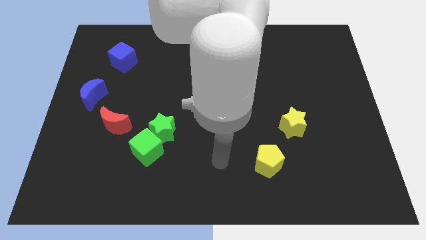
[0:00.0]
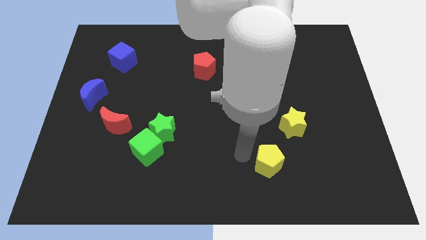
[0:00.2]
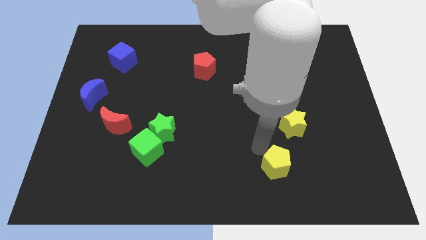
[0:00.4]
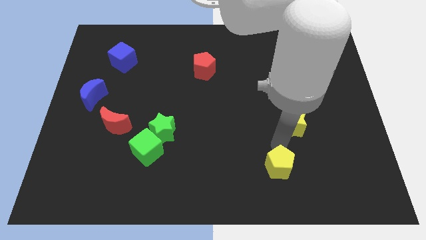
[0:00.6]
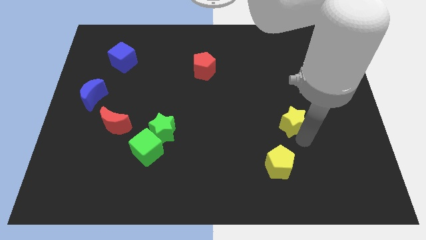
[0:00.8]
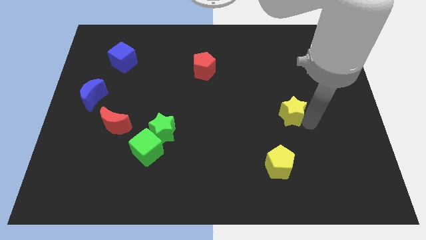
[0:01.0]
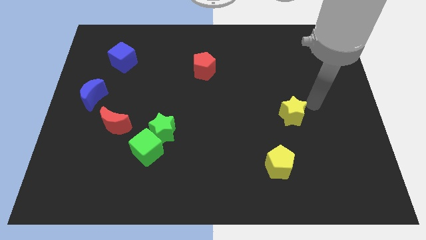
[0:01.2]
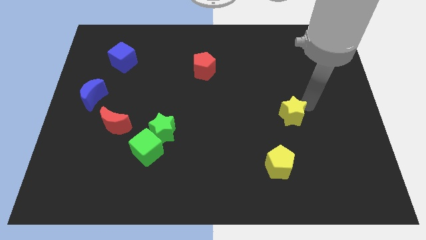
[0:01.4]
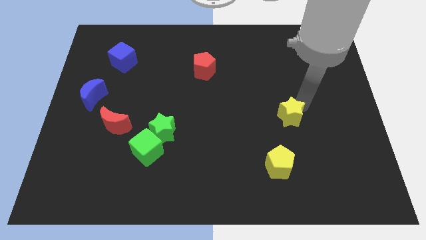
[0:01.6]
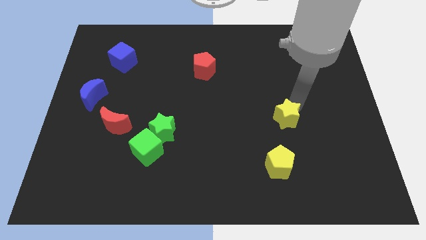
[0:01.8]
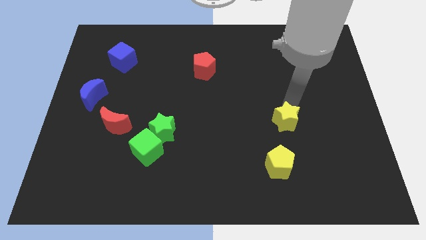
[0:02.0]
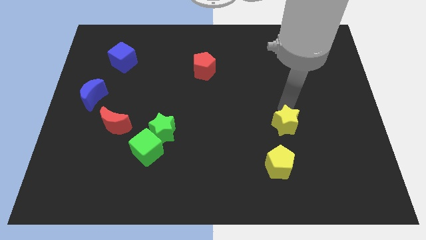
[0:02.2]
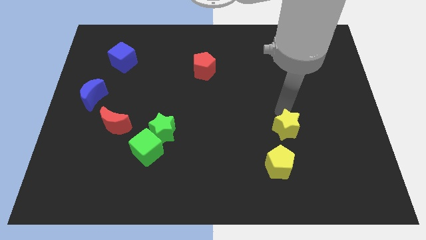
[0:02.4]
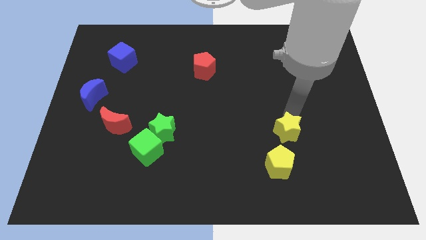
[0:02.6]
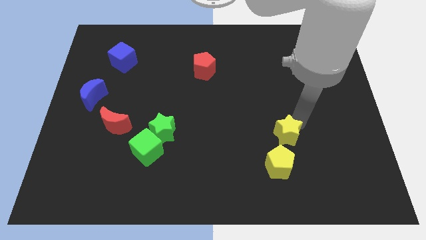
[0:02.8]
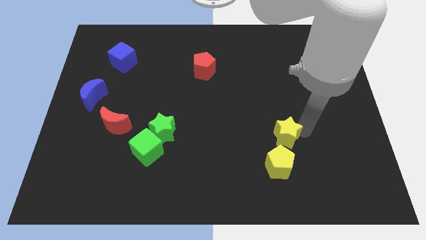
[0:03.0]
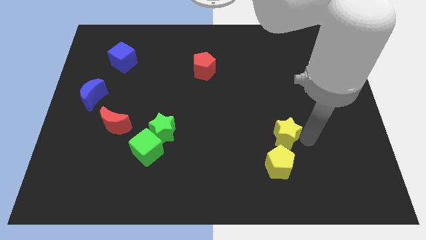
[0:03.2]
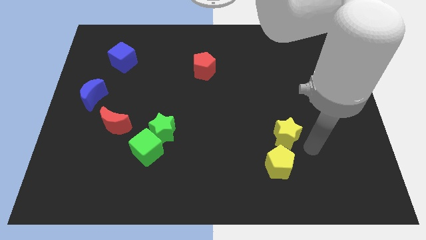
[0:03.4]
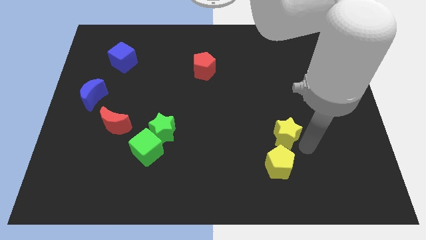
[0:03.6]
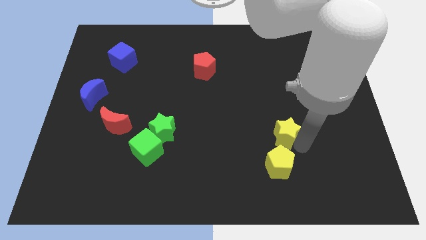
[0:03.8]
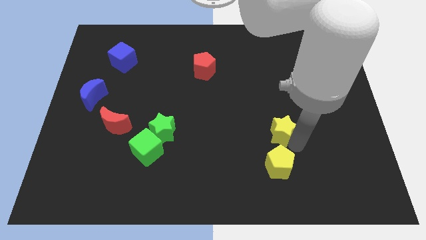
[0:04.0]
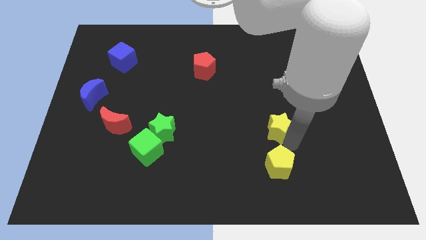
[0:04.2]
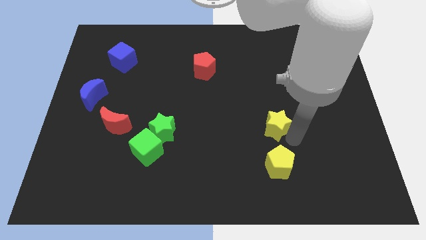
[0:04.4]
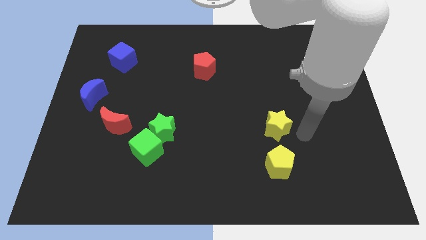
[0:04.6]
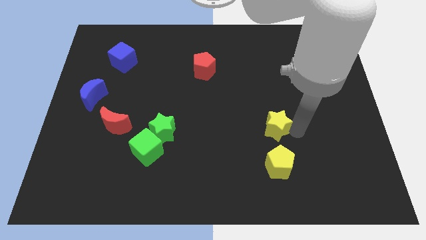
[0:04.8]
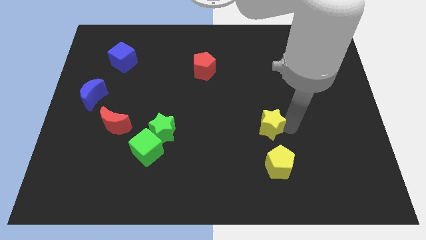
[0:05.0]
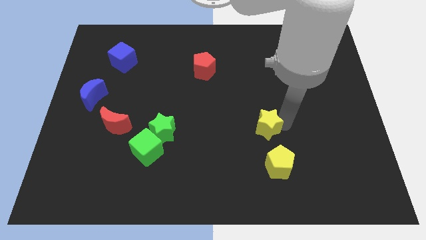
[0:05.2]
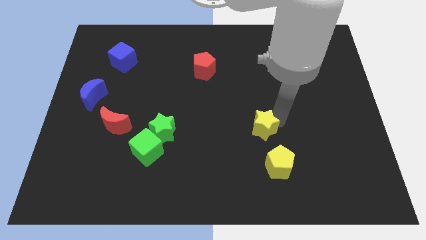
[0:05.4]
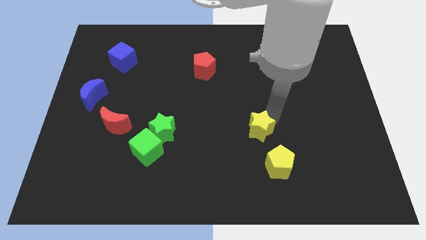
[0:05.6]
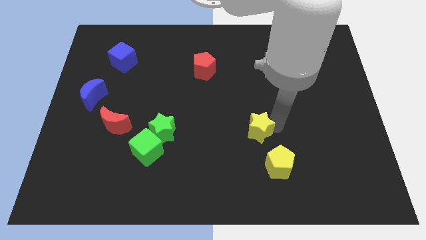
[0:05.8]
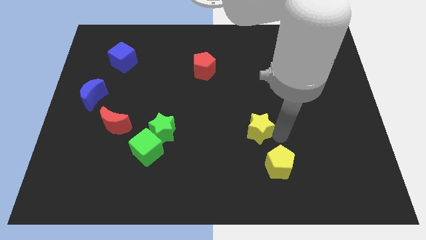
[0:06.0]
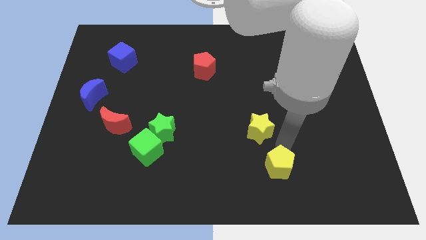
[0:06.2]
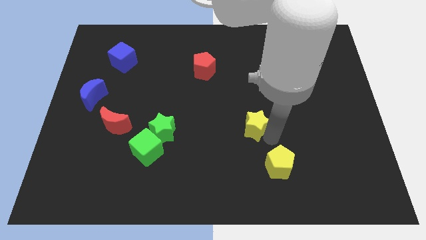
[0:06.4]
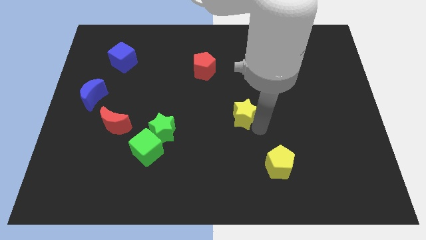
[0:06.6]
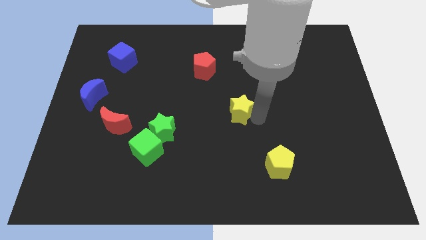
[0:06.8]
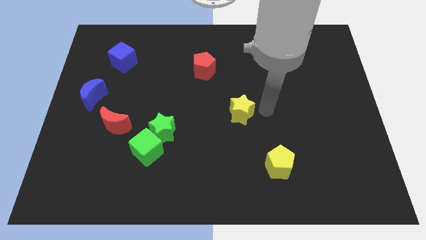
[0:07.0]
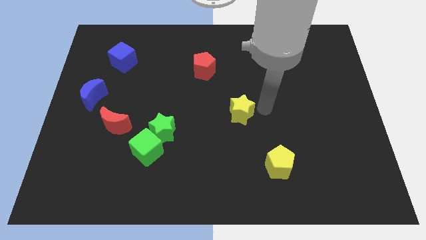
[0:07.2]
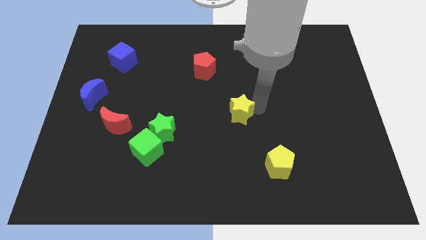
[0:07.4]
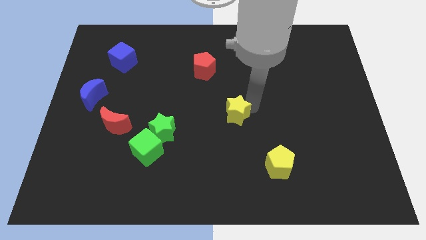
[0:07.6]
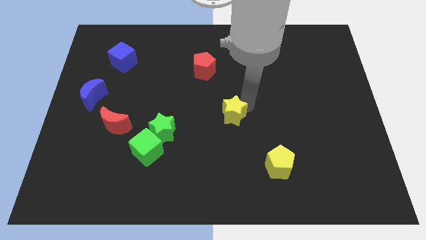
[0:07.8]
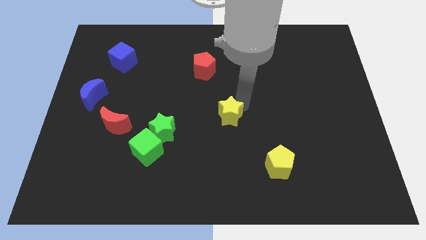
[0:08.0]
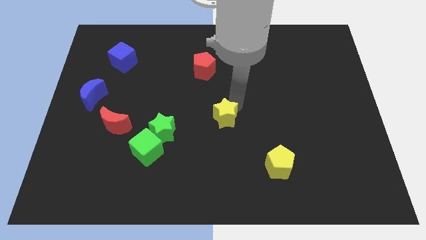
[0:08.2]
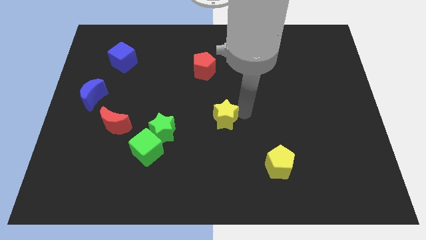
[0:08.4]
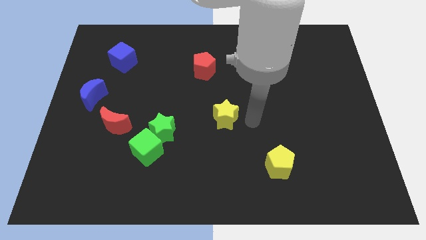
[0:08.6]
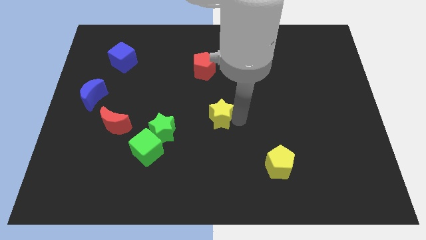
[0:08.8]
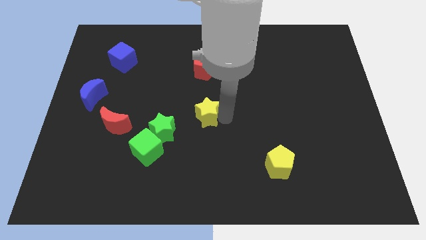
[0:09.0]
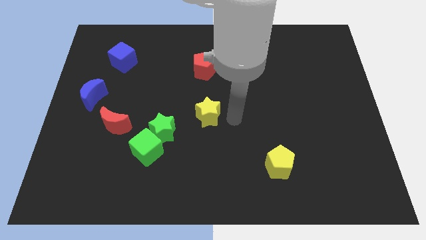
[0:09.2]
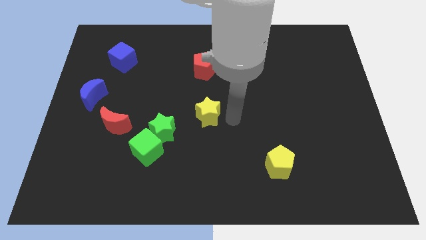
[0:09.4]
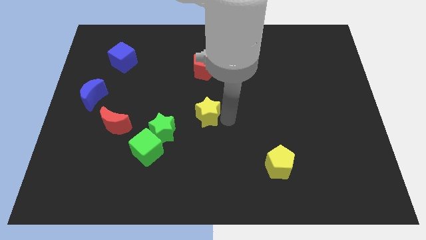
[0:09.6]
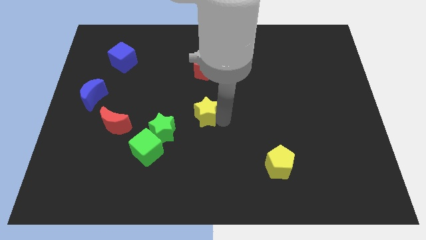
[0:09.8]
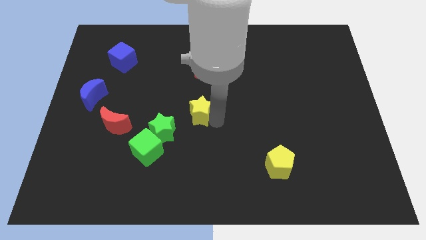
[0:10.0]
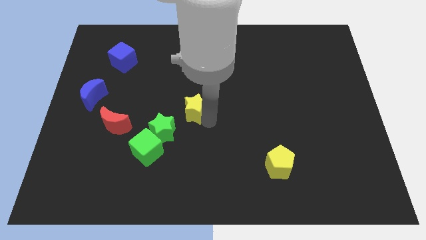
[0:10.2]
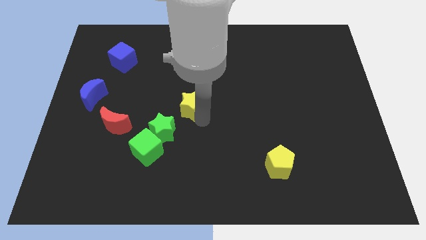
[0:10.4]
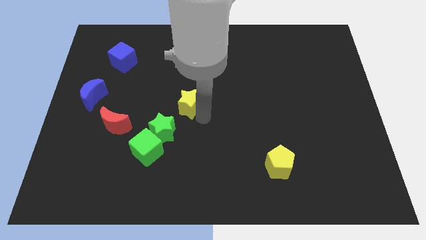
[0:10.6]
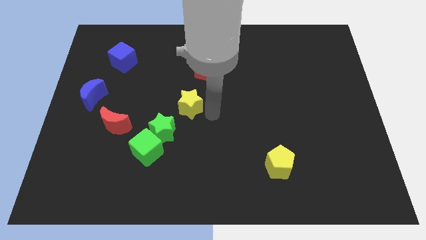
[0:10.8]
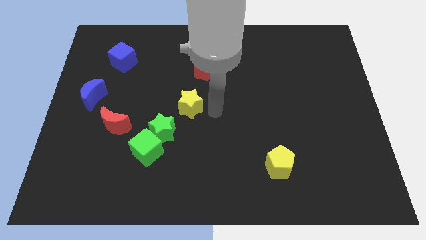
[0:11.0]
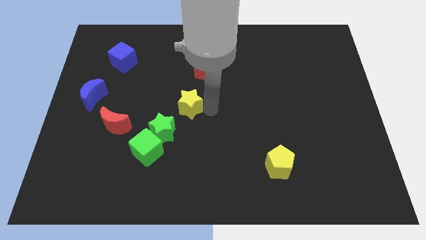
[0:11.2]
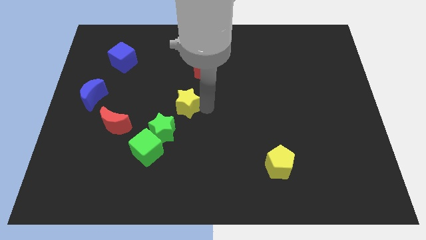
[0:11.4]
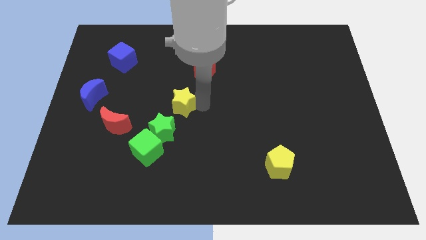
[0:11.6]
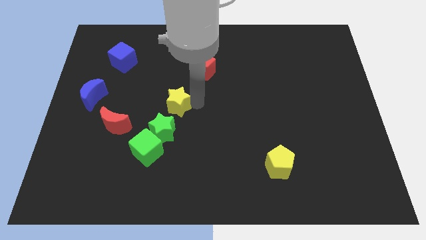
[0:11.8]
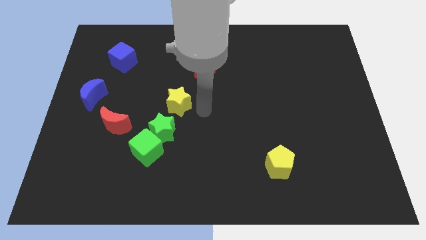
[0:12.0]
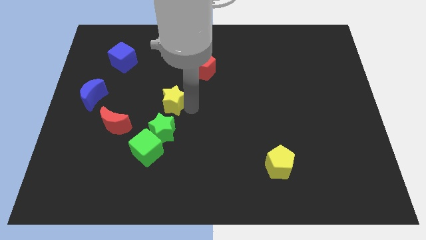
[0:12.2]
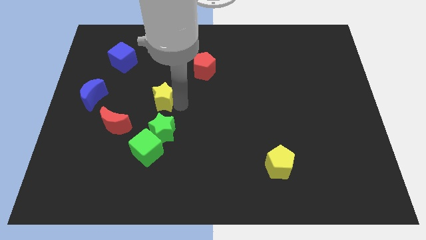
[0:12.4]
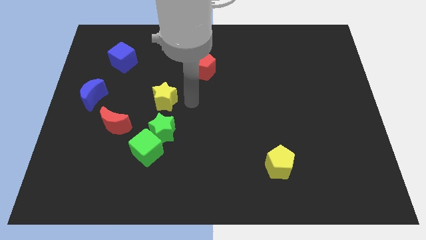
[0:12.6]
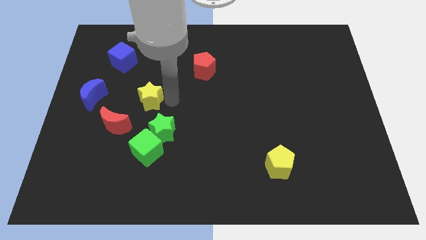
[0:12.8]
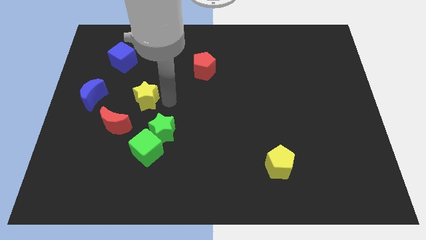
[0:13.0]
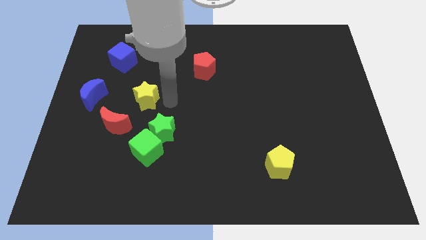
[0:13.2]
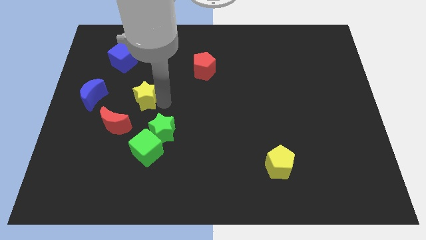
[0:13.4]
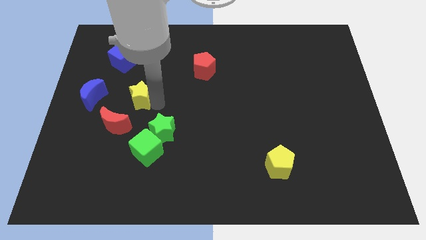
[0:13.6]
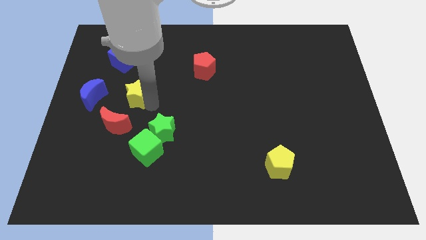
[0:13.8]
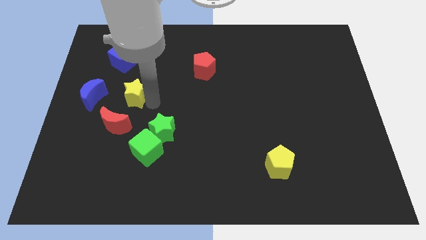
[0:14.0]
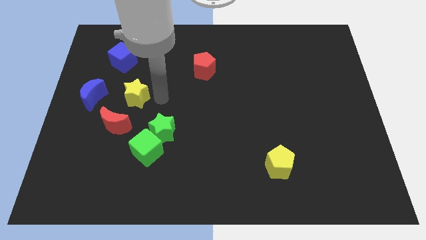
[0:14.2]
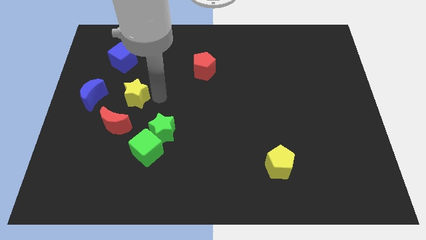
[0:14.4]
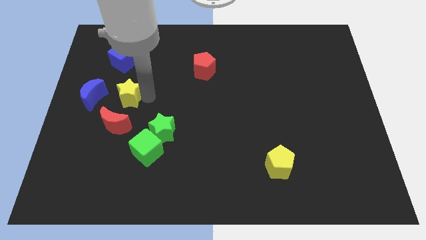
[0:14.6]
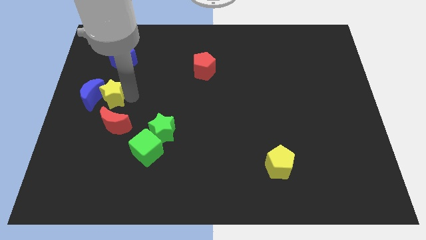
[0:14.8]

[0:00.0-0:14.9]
slide the yellow star close to the blue moon

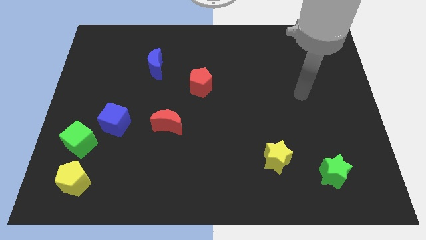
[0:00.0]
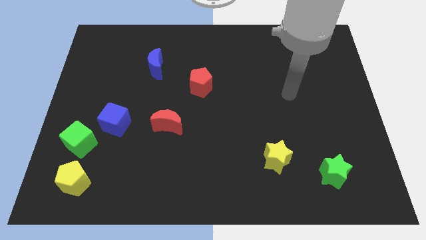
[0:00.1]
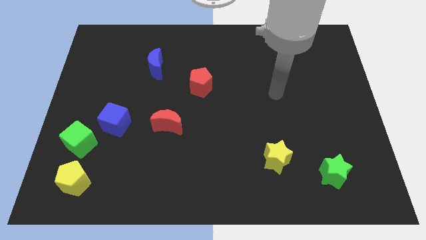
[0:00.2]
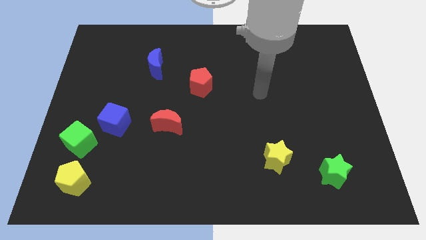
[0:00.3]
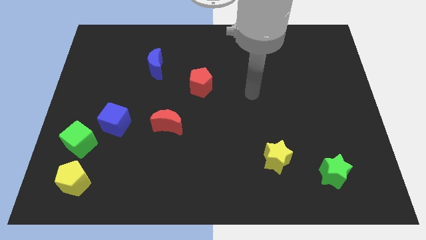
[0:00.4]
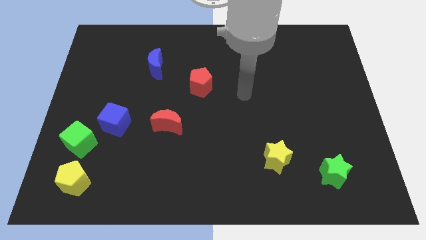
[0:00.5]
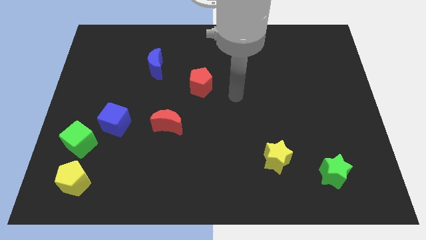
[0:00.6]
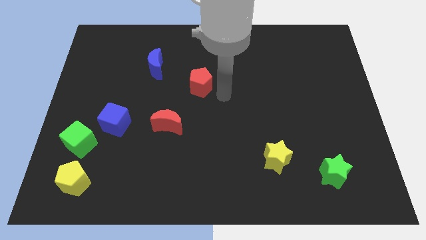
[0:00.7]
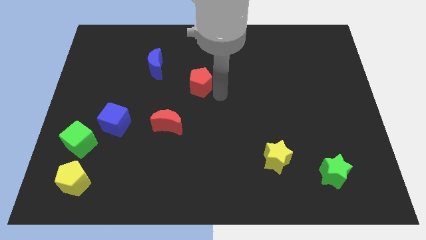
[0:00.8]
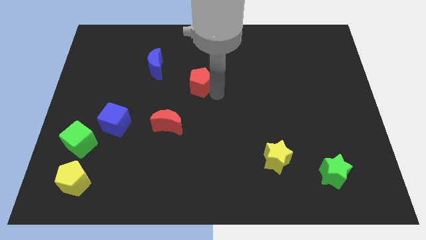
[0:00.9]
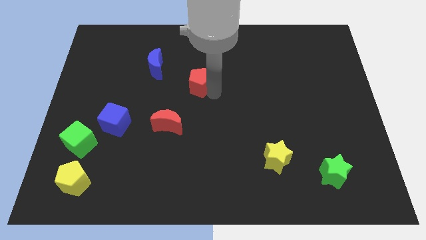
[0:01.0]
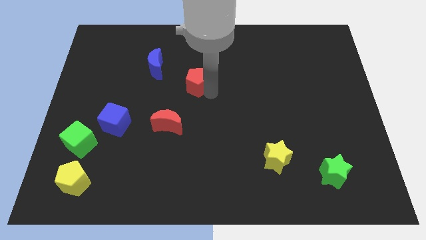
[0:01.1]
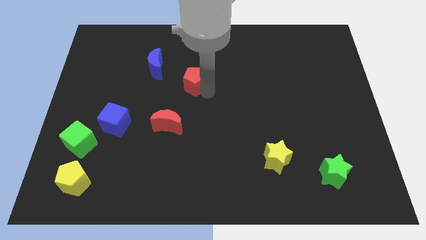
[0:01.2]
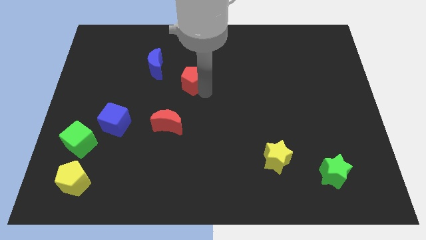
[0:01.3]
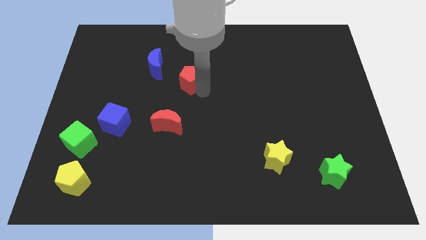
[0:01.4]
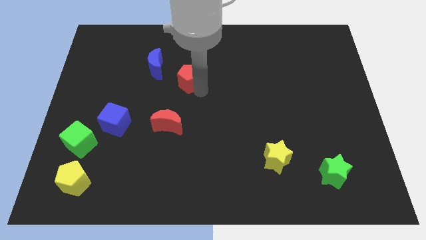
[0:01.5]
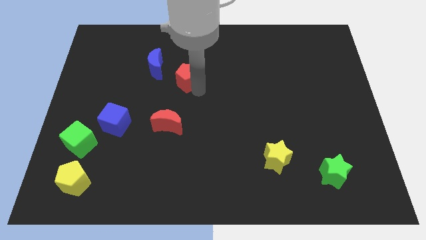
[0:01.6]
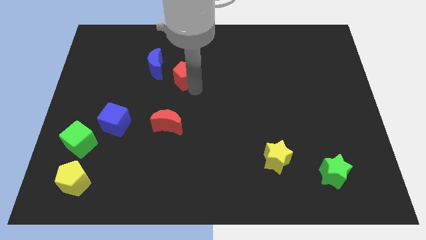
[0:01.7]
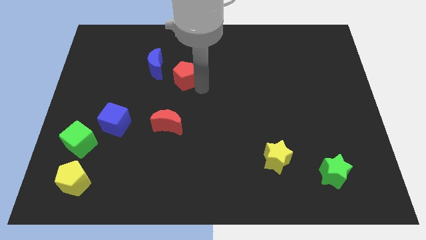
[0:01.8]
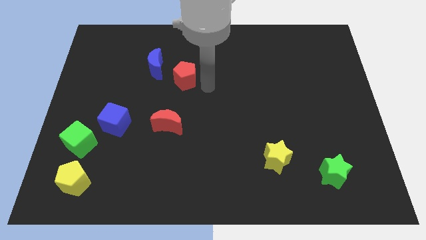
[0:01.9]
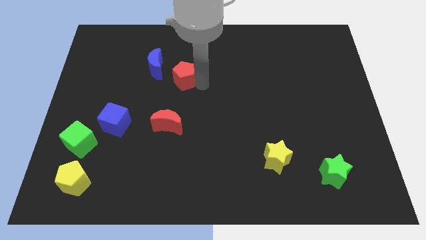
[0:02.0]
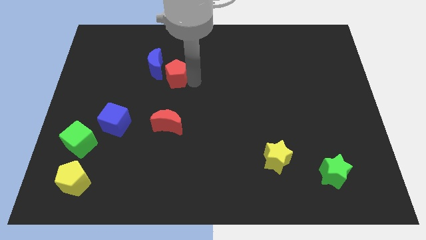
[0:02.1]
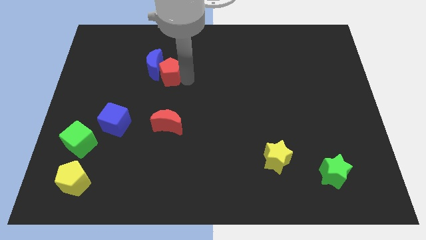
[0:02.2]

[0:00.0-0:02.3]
move the red pentagon next to the blue moon
